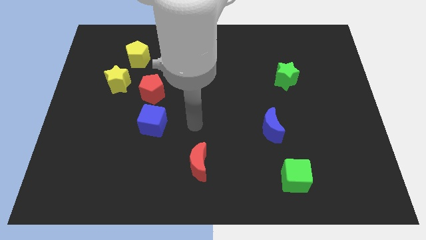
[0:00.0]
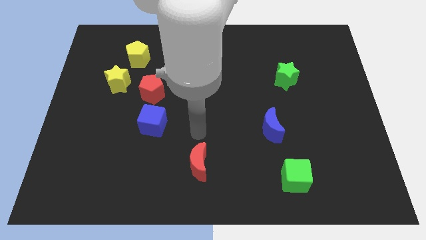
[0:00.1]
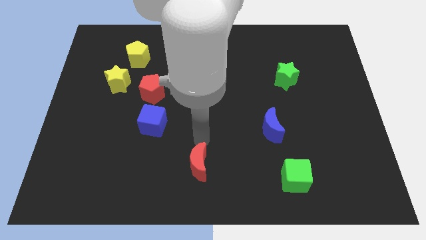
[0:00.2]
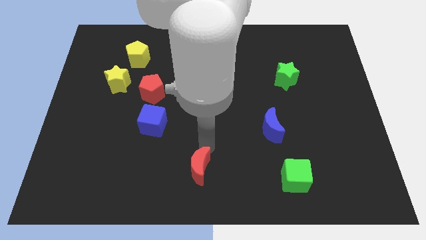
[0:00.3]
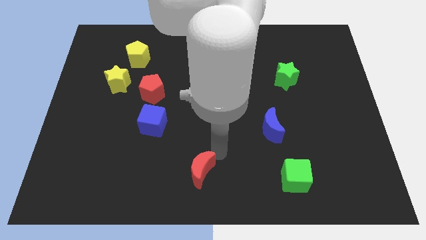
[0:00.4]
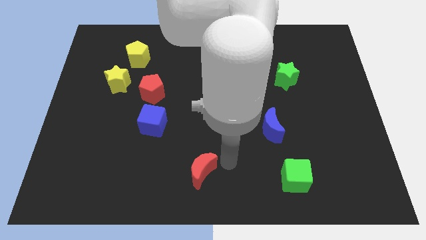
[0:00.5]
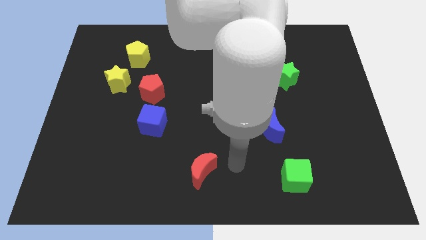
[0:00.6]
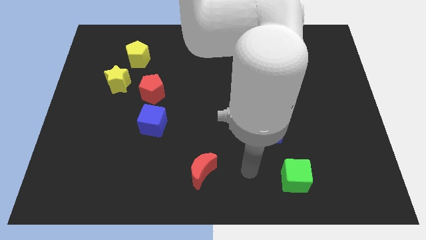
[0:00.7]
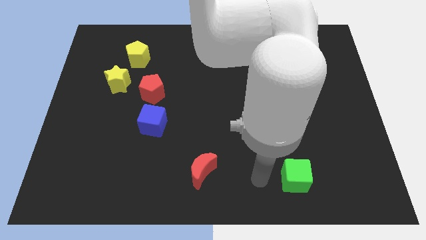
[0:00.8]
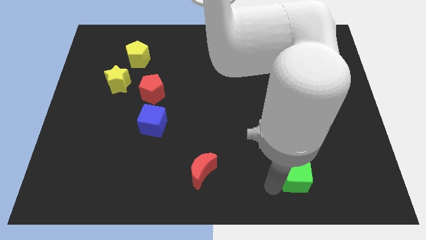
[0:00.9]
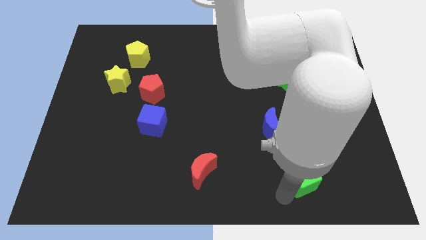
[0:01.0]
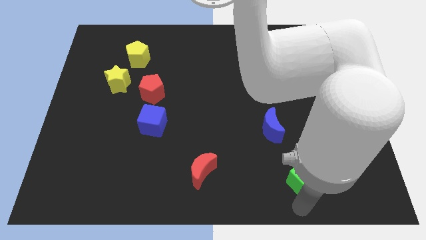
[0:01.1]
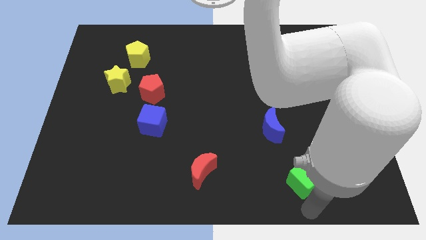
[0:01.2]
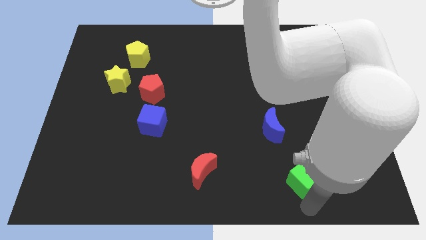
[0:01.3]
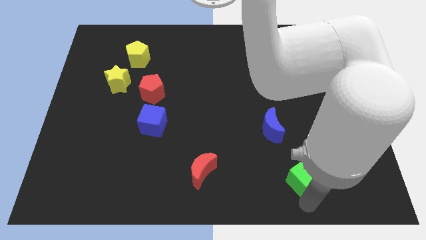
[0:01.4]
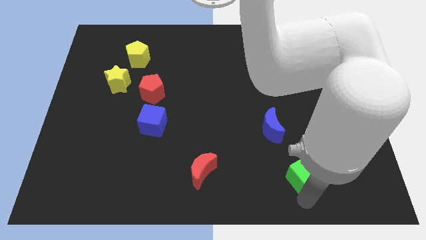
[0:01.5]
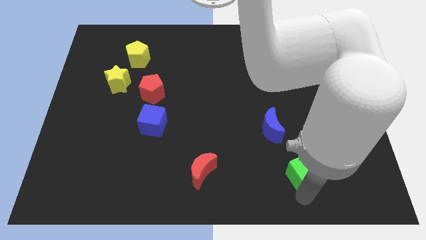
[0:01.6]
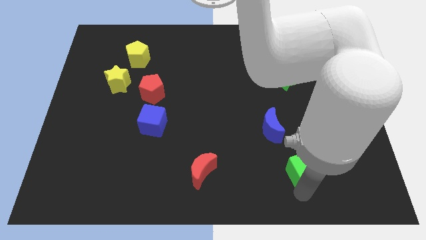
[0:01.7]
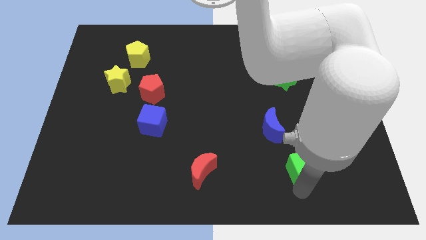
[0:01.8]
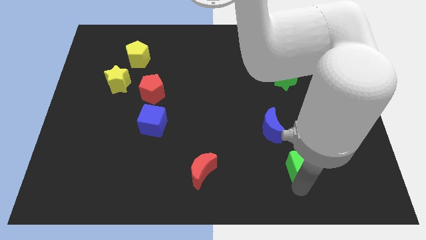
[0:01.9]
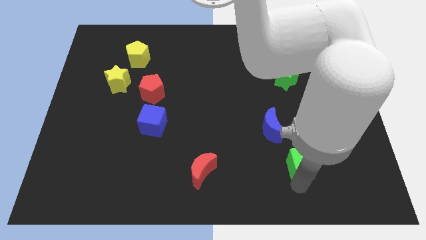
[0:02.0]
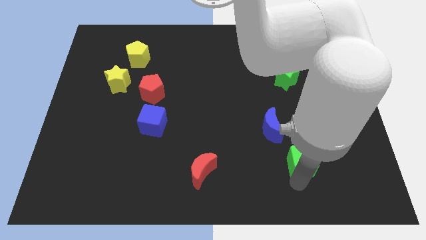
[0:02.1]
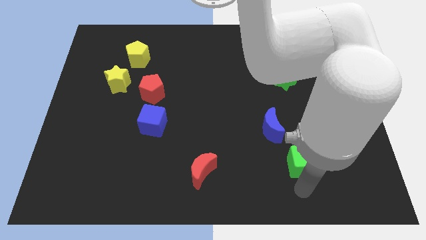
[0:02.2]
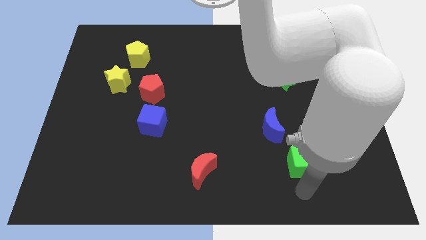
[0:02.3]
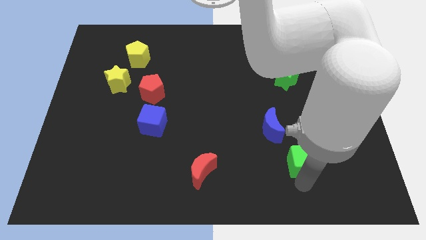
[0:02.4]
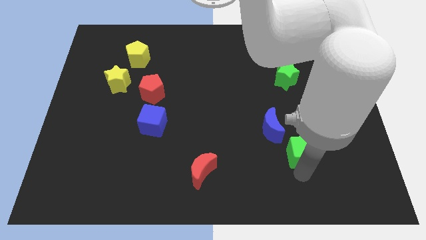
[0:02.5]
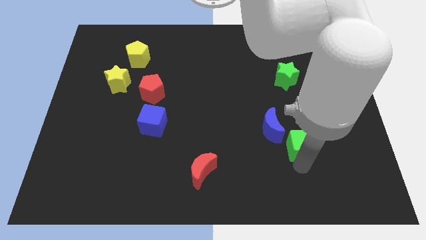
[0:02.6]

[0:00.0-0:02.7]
slightly push the green cube up

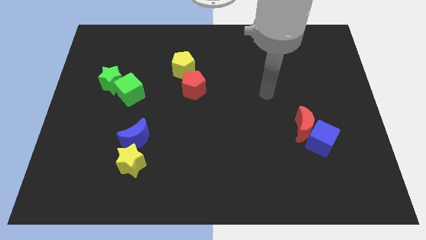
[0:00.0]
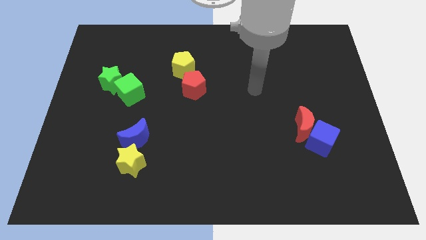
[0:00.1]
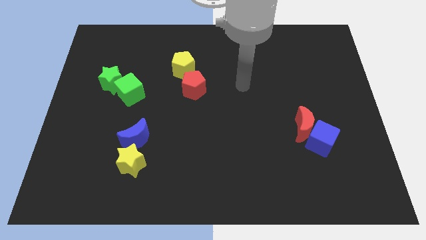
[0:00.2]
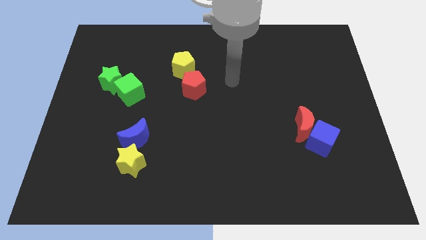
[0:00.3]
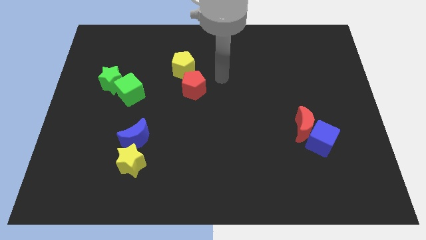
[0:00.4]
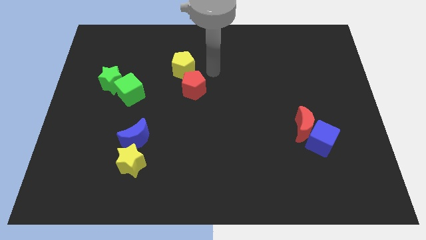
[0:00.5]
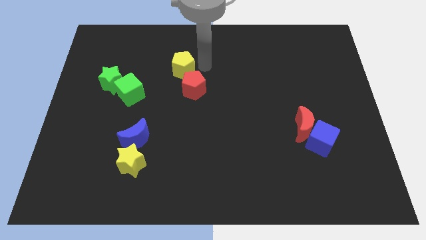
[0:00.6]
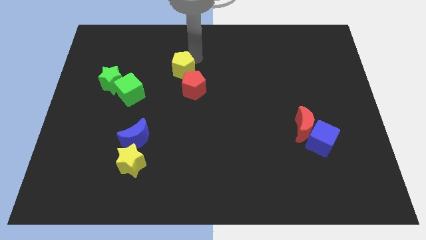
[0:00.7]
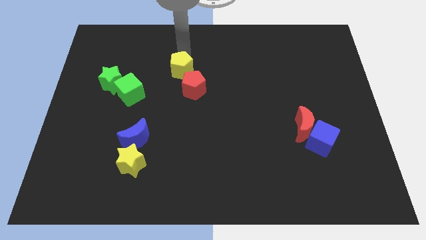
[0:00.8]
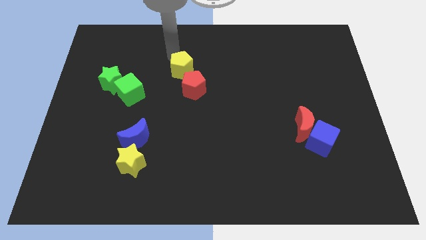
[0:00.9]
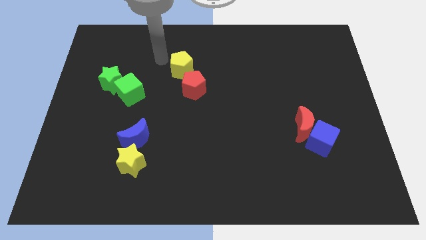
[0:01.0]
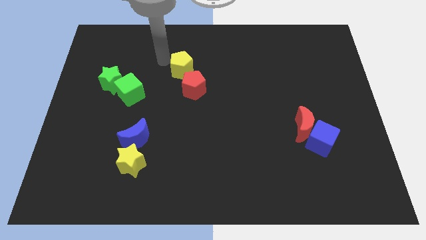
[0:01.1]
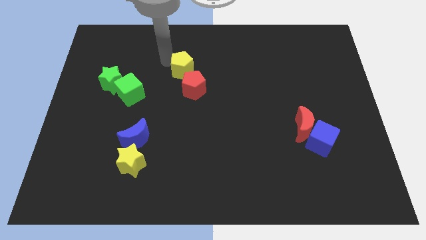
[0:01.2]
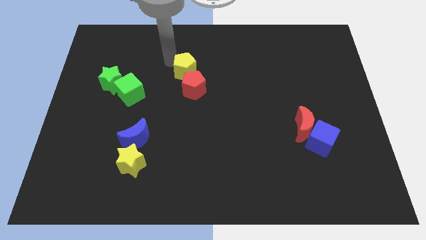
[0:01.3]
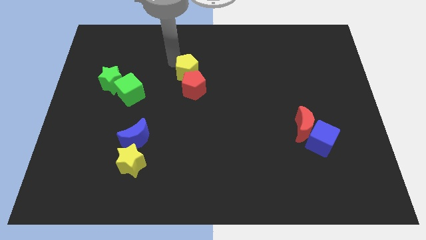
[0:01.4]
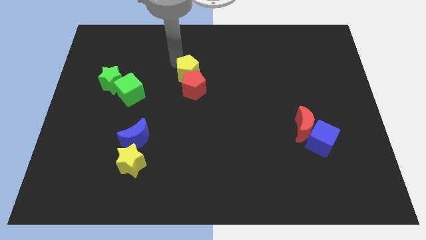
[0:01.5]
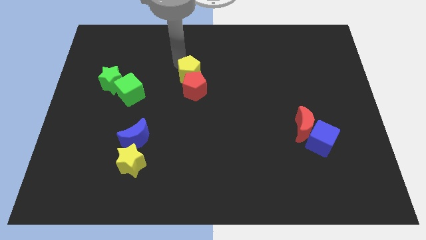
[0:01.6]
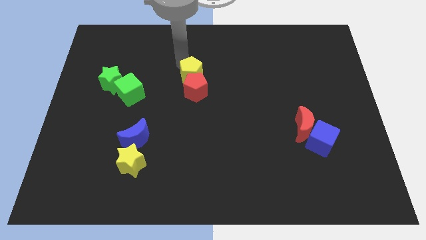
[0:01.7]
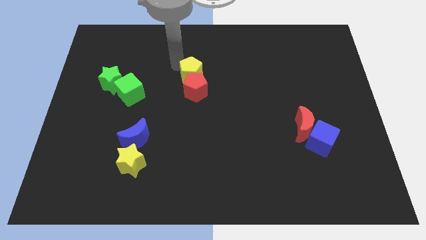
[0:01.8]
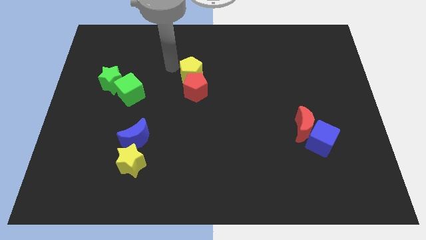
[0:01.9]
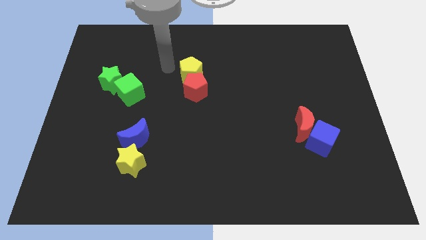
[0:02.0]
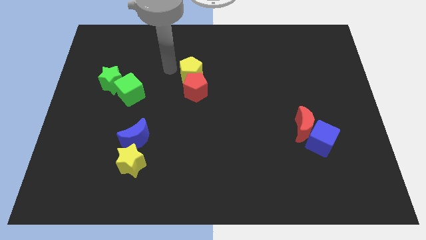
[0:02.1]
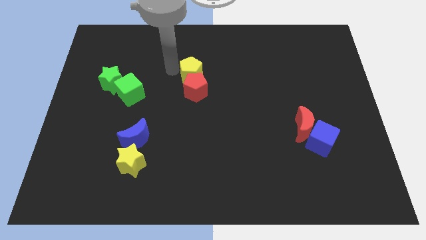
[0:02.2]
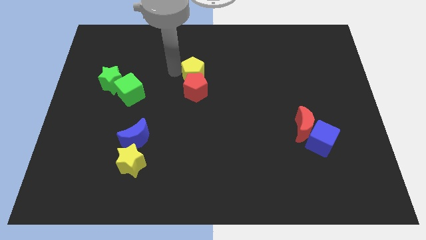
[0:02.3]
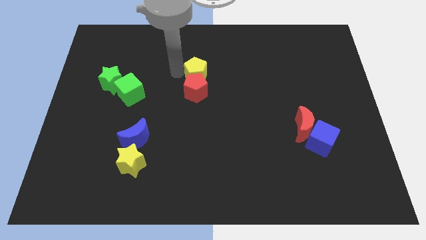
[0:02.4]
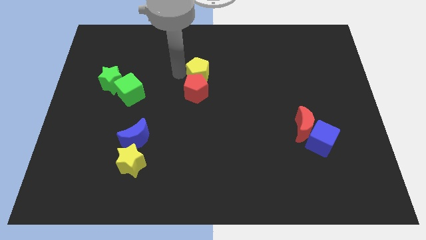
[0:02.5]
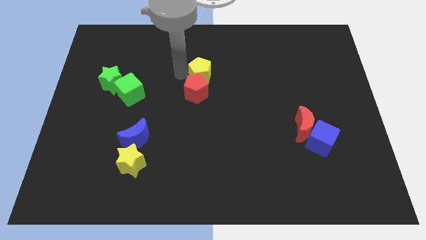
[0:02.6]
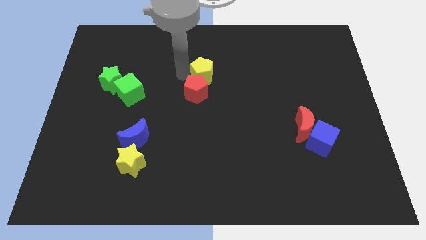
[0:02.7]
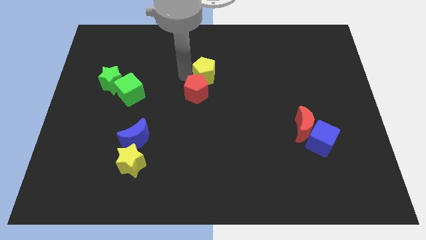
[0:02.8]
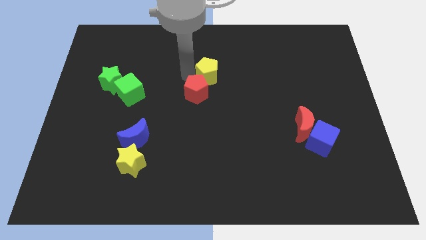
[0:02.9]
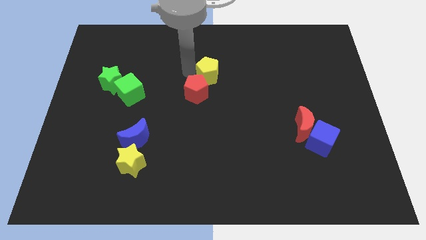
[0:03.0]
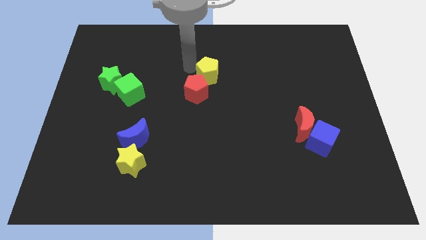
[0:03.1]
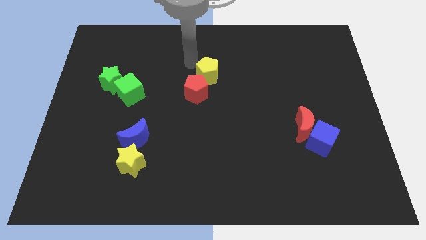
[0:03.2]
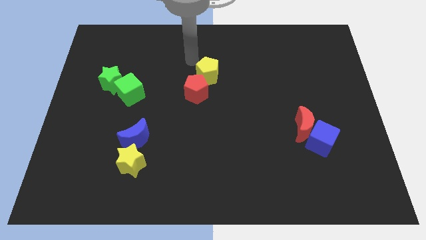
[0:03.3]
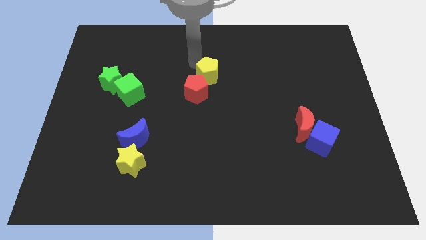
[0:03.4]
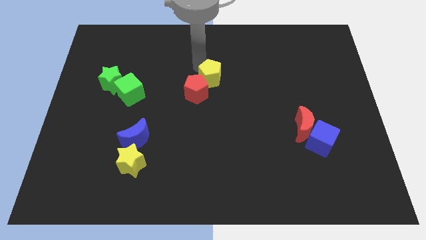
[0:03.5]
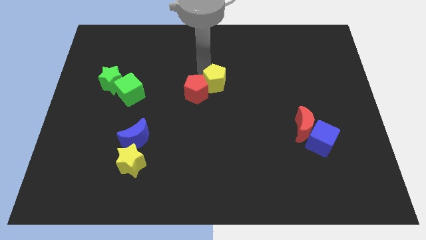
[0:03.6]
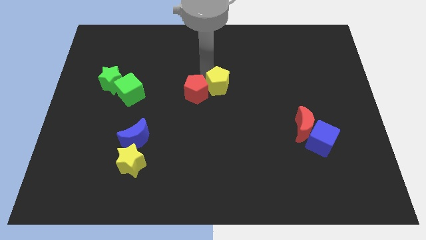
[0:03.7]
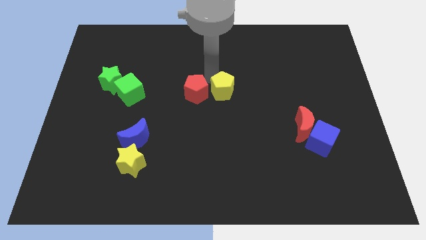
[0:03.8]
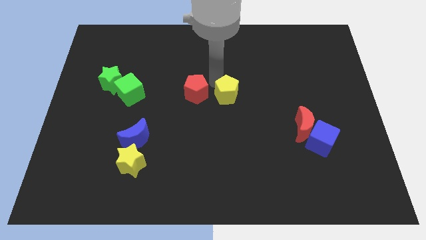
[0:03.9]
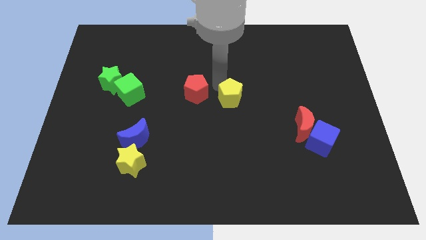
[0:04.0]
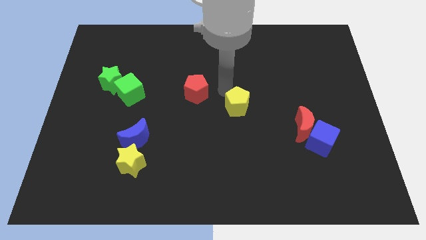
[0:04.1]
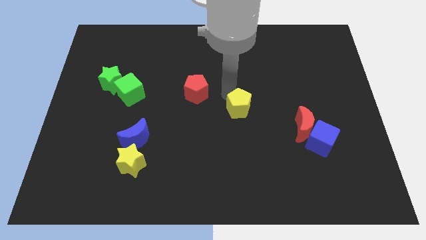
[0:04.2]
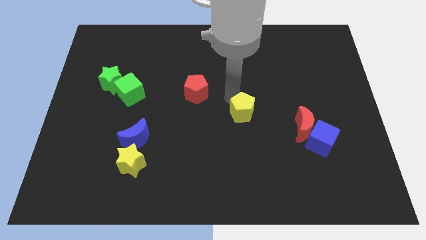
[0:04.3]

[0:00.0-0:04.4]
move the yellow pentagon downwards and right

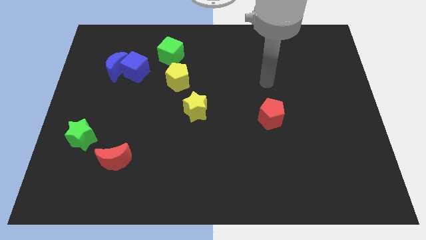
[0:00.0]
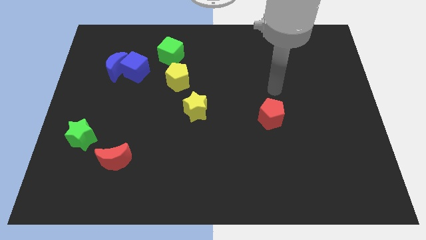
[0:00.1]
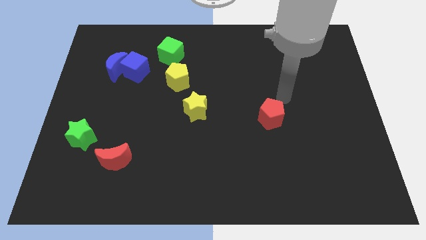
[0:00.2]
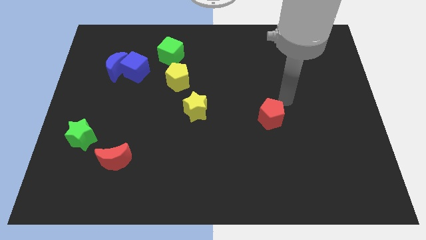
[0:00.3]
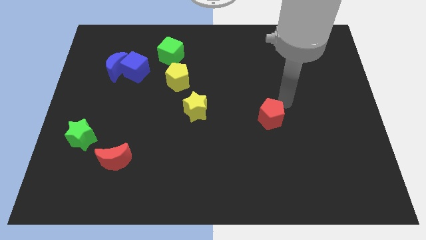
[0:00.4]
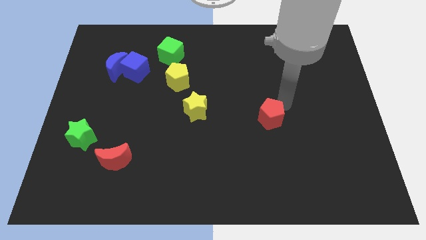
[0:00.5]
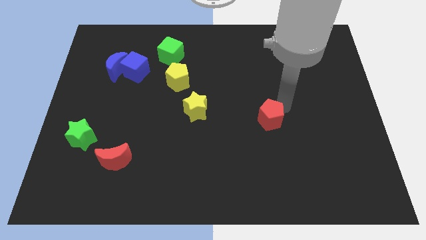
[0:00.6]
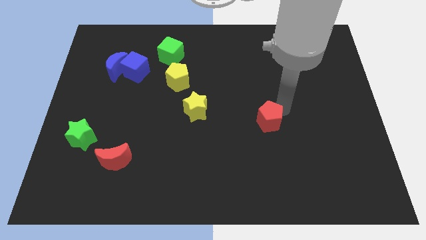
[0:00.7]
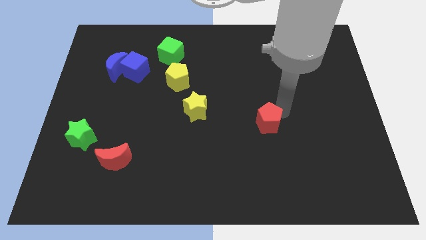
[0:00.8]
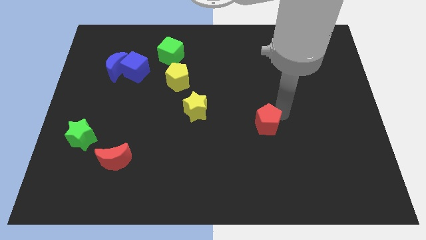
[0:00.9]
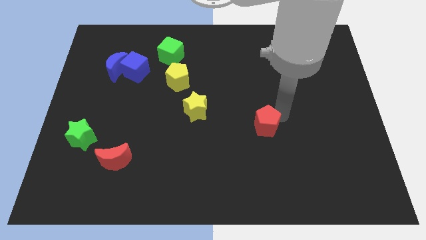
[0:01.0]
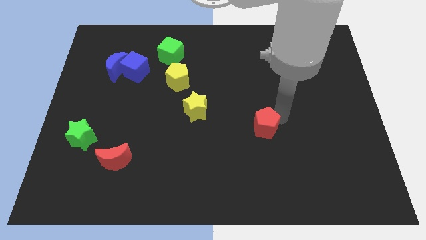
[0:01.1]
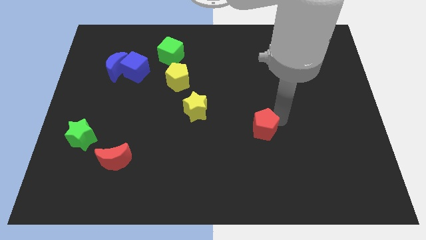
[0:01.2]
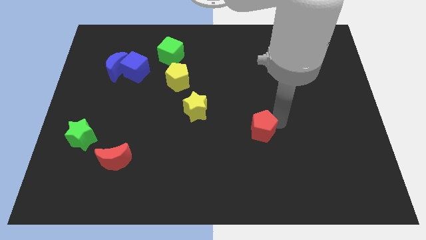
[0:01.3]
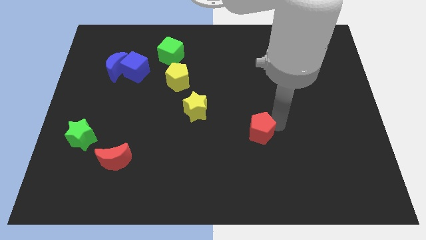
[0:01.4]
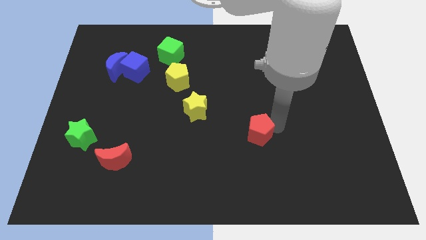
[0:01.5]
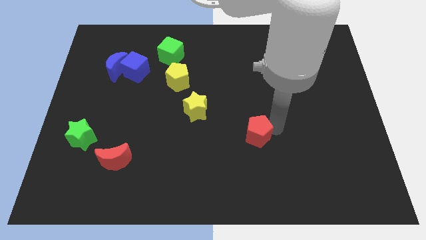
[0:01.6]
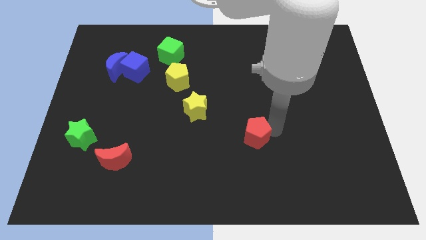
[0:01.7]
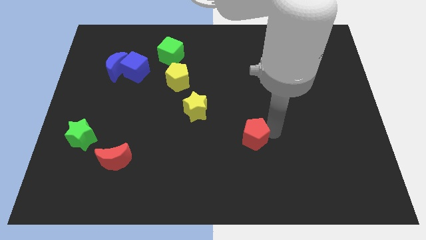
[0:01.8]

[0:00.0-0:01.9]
slightly slide the red pentagon diagonally downwards and to the left
